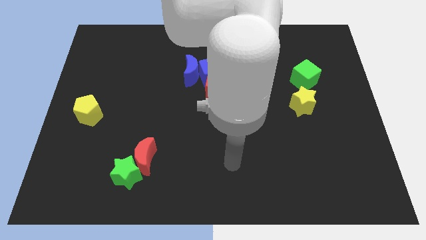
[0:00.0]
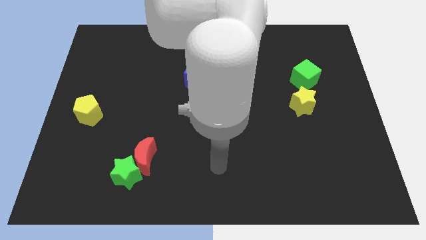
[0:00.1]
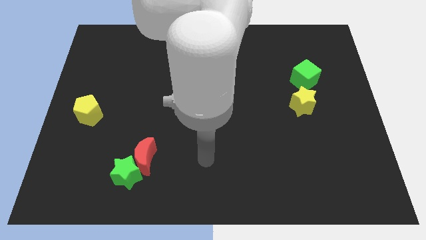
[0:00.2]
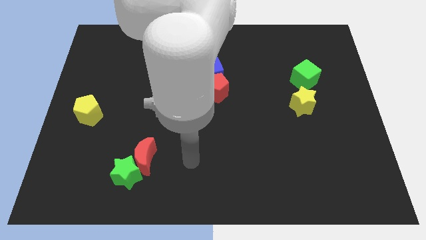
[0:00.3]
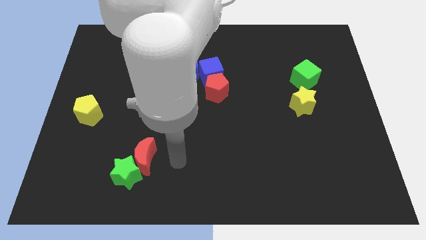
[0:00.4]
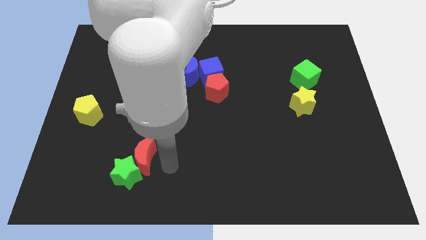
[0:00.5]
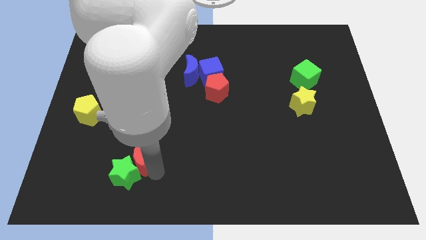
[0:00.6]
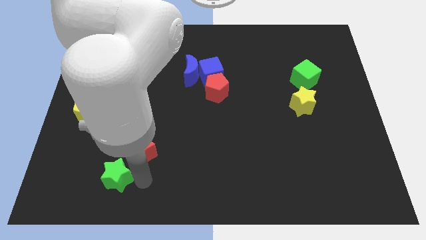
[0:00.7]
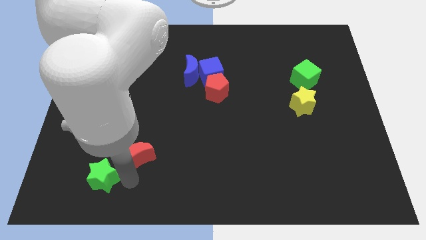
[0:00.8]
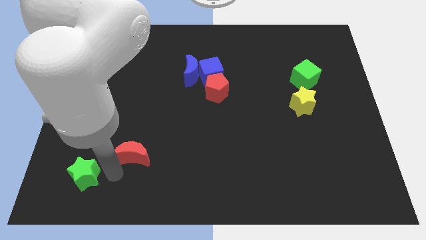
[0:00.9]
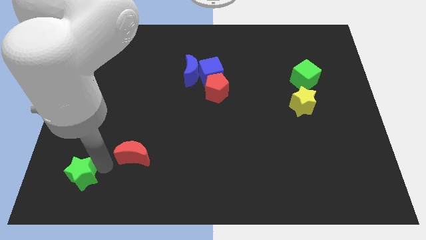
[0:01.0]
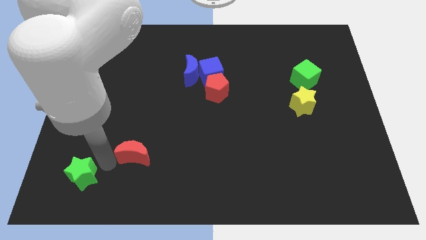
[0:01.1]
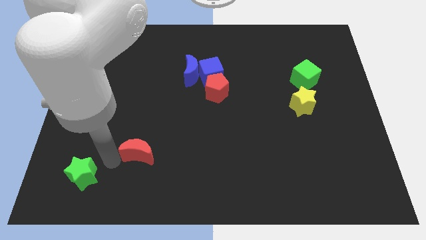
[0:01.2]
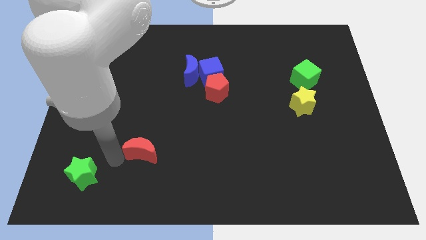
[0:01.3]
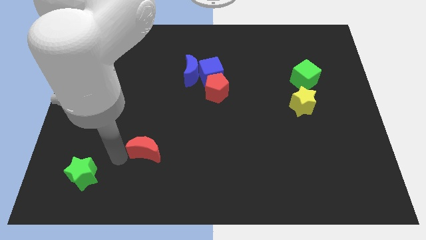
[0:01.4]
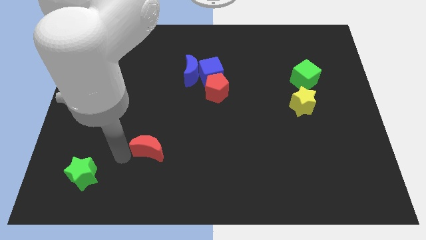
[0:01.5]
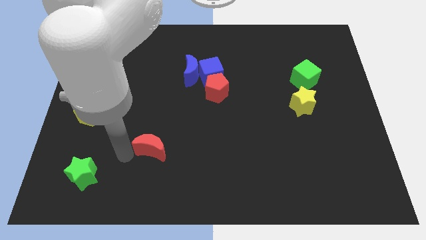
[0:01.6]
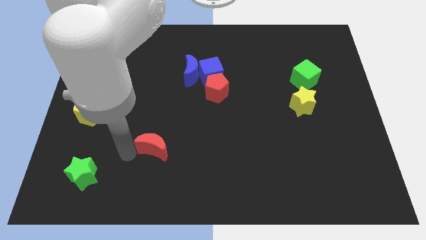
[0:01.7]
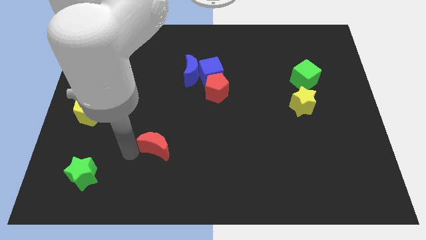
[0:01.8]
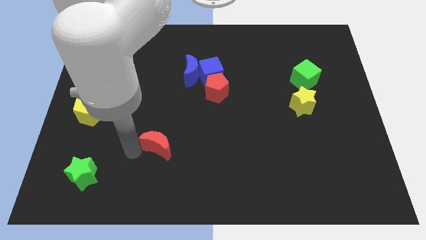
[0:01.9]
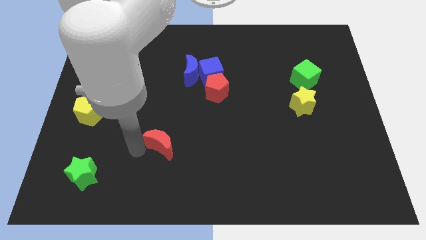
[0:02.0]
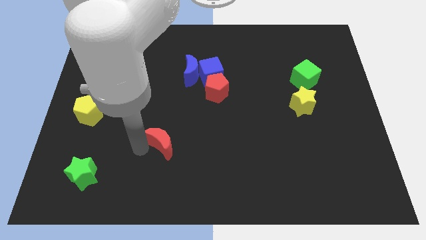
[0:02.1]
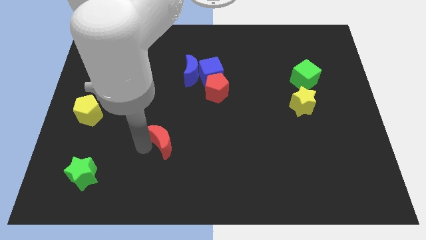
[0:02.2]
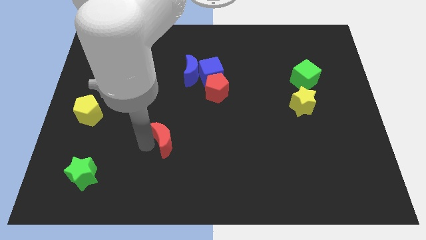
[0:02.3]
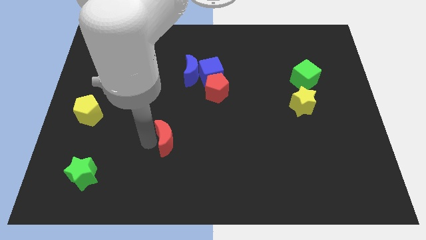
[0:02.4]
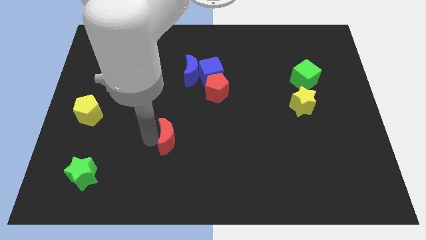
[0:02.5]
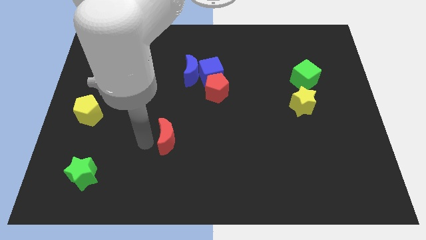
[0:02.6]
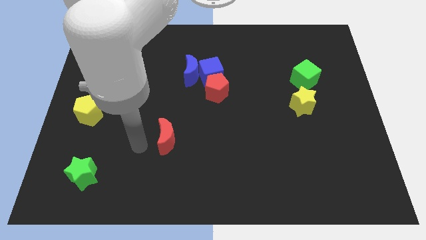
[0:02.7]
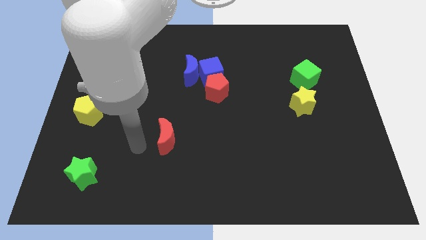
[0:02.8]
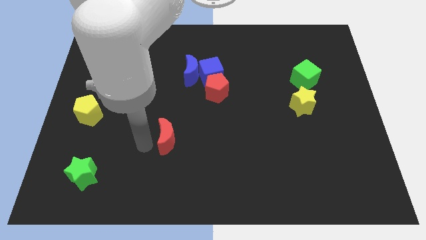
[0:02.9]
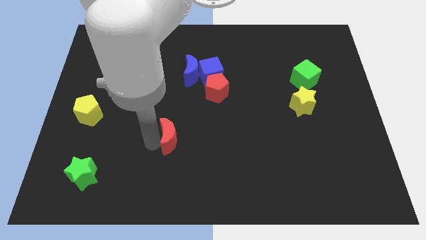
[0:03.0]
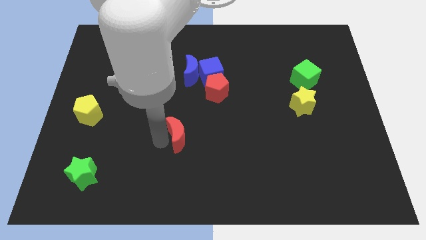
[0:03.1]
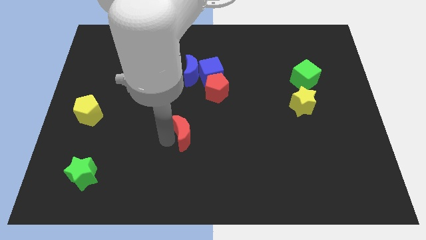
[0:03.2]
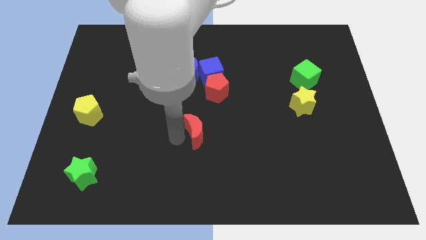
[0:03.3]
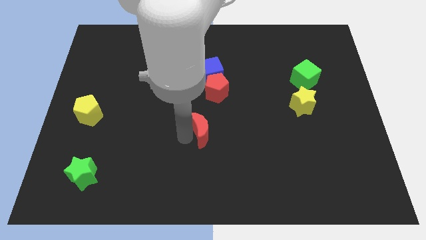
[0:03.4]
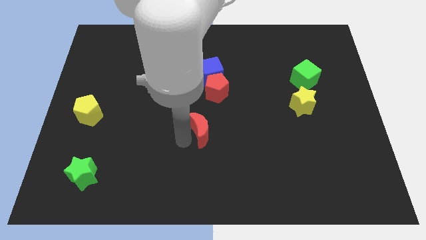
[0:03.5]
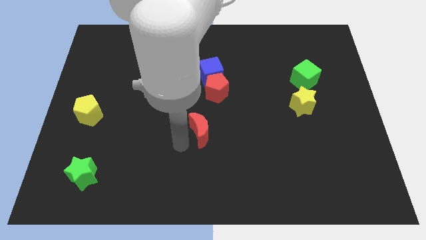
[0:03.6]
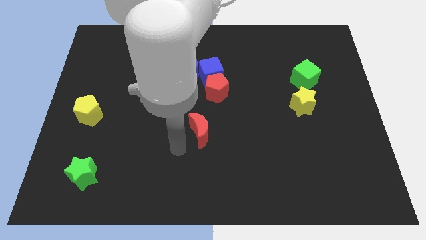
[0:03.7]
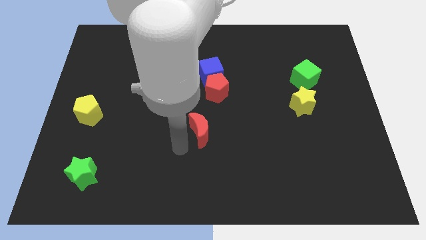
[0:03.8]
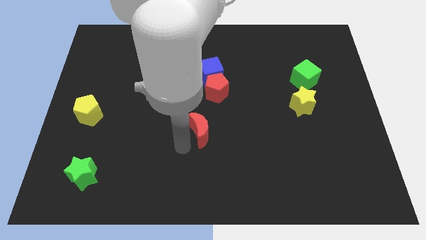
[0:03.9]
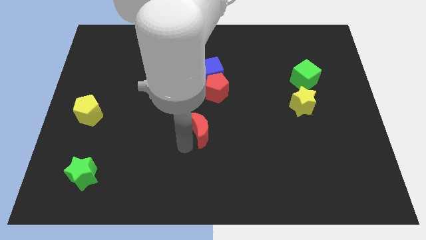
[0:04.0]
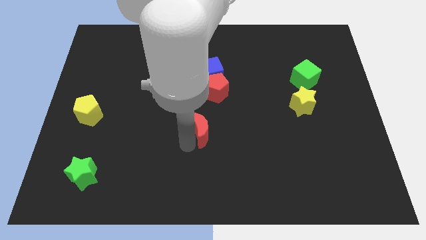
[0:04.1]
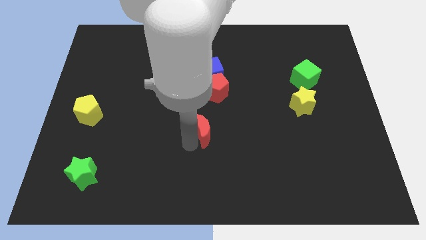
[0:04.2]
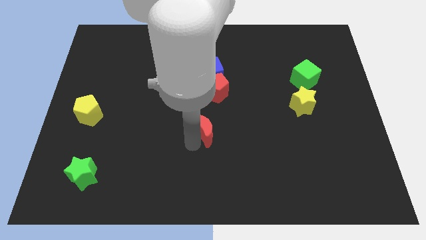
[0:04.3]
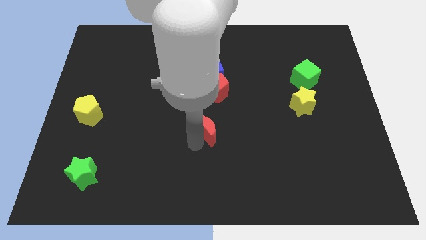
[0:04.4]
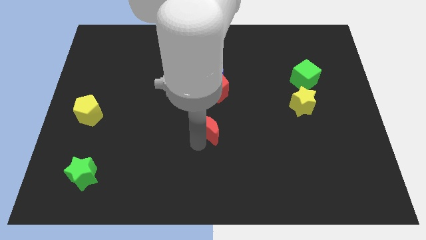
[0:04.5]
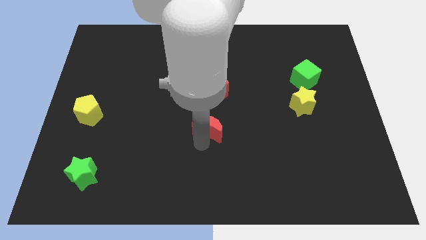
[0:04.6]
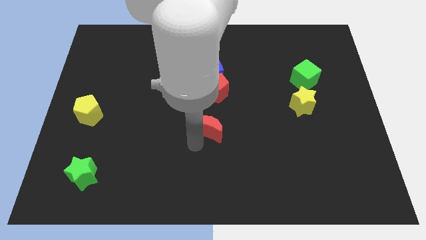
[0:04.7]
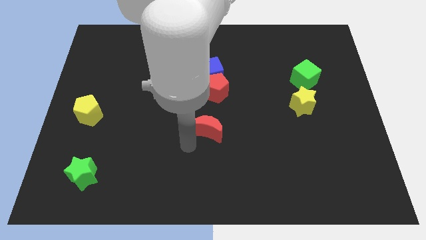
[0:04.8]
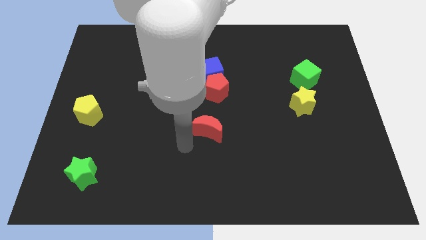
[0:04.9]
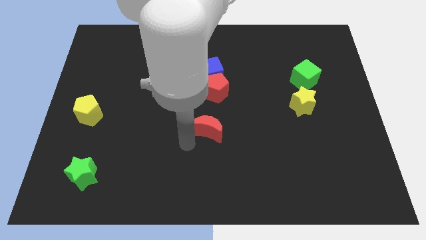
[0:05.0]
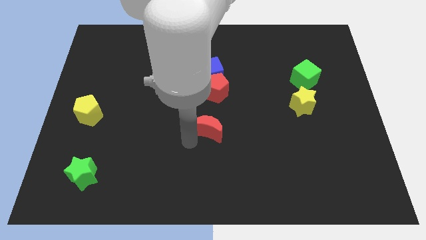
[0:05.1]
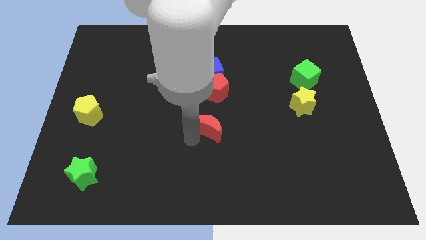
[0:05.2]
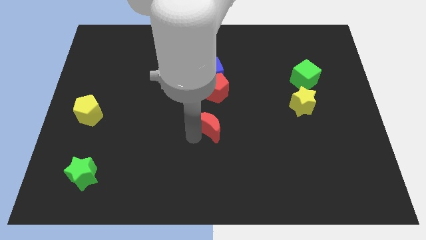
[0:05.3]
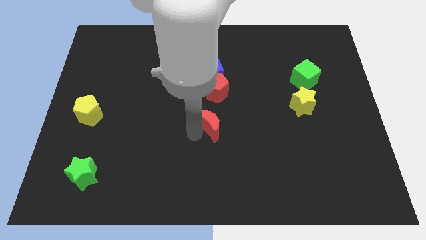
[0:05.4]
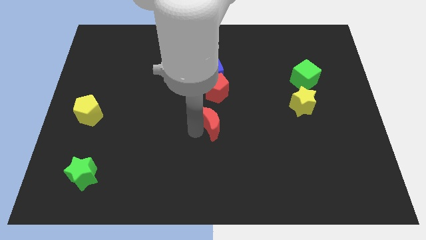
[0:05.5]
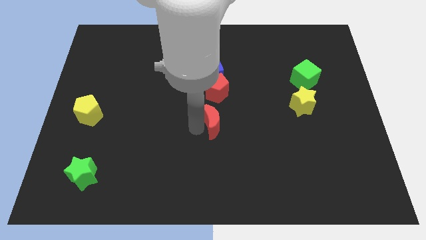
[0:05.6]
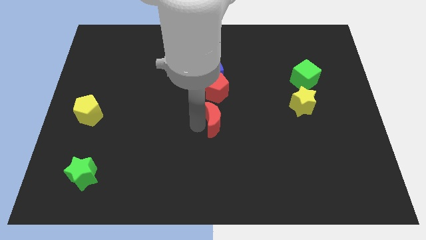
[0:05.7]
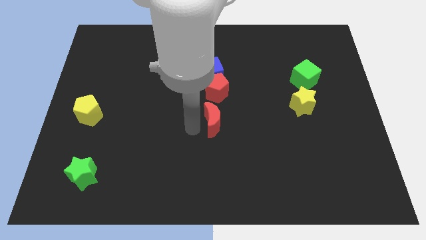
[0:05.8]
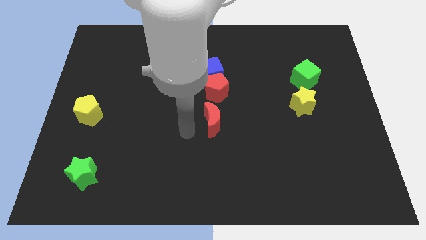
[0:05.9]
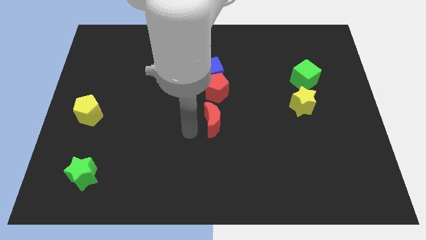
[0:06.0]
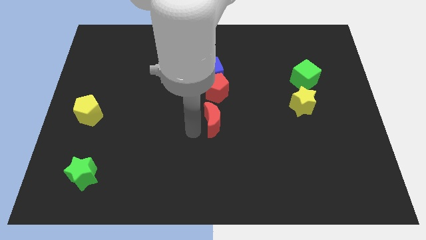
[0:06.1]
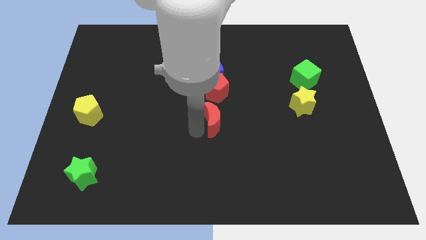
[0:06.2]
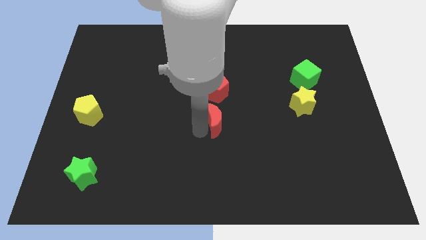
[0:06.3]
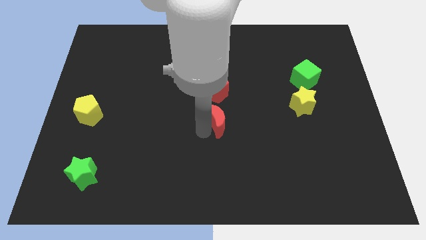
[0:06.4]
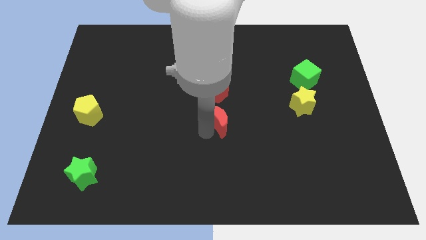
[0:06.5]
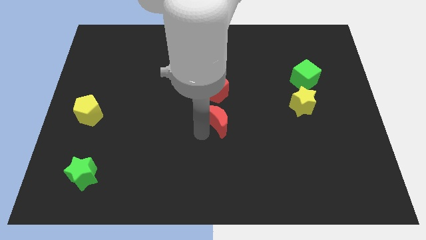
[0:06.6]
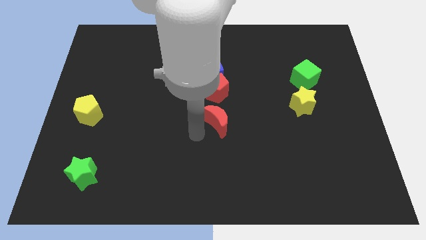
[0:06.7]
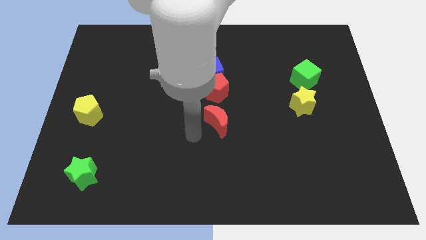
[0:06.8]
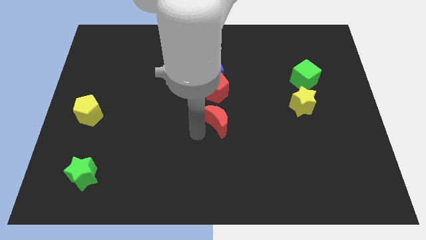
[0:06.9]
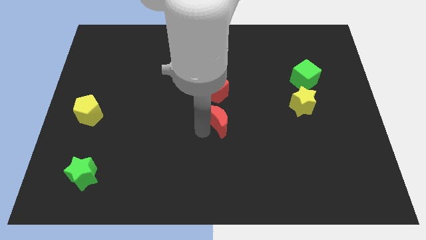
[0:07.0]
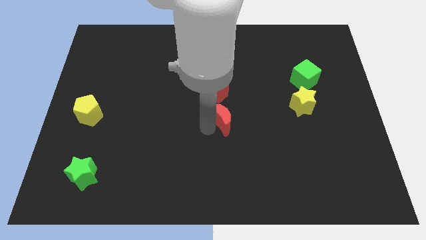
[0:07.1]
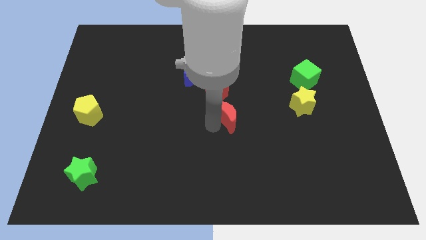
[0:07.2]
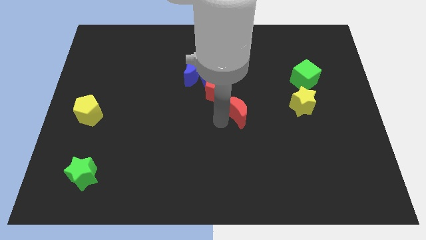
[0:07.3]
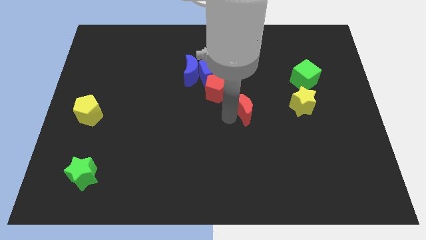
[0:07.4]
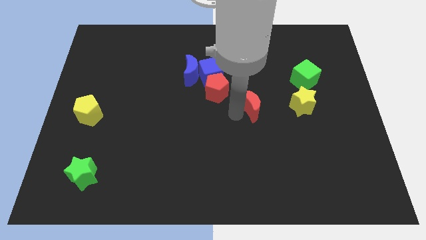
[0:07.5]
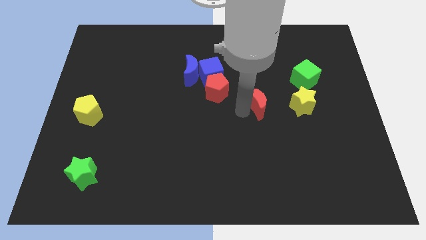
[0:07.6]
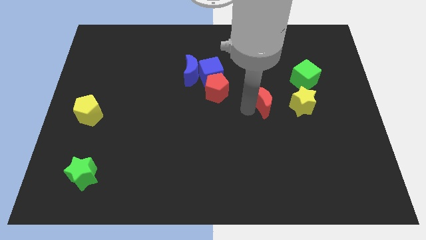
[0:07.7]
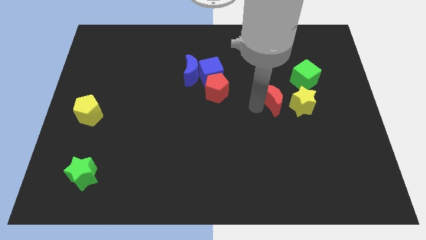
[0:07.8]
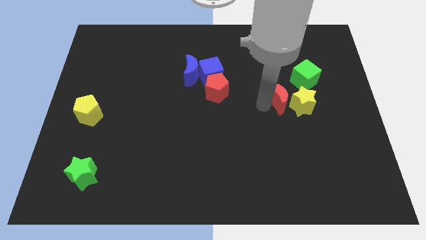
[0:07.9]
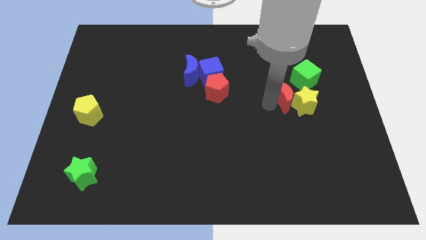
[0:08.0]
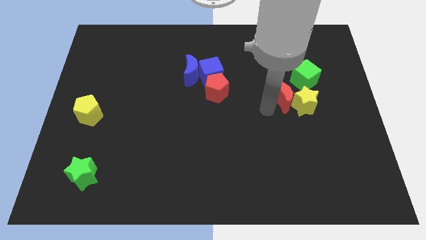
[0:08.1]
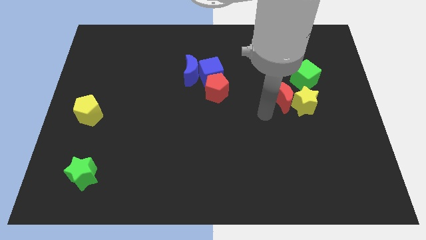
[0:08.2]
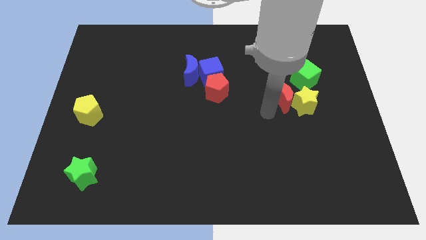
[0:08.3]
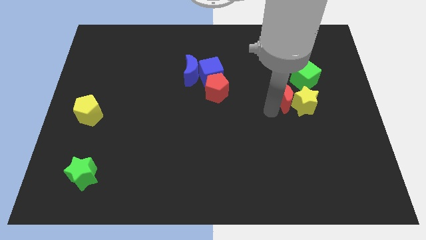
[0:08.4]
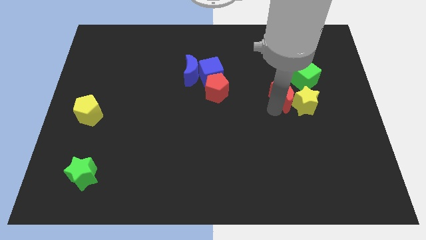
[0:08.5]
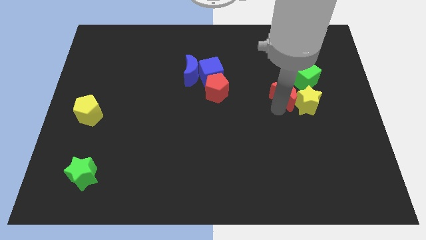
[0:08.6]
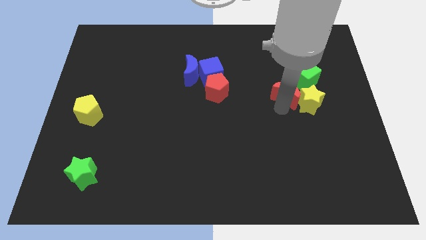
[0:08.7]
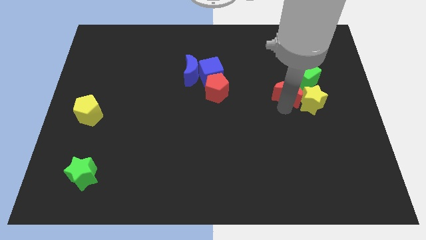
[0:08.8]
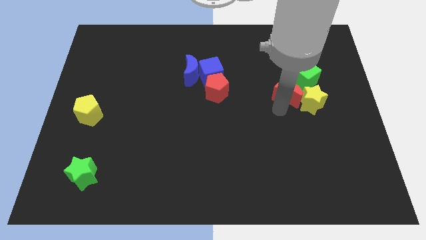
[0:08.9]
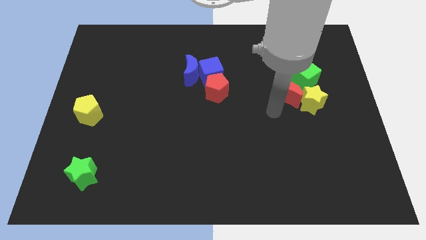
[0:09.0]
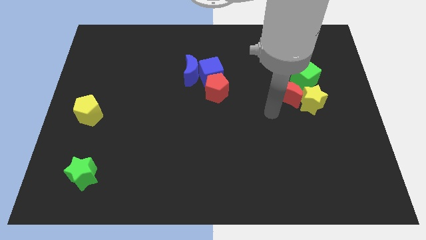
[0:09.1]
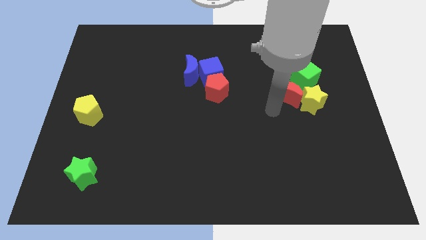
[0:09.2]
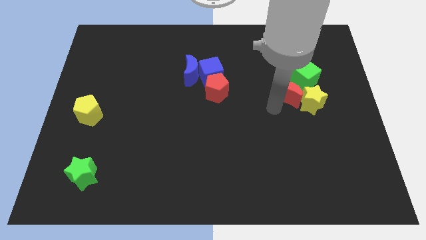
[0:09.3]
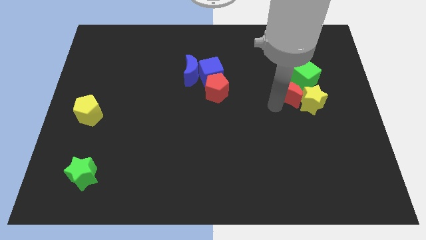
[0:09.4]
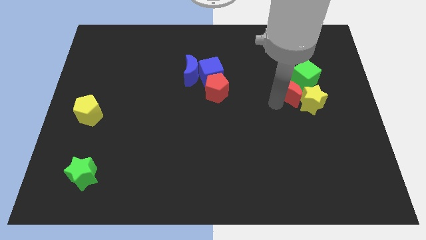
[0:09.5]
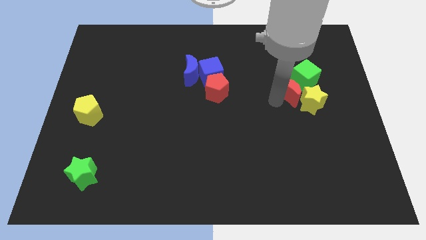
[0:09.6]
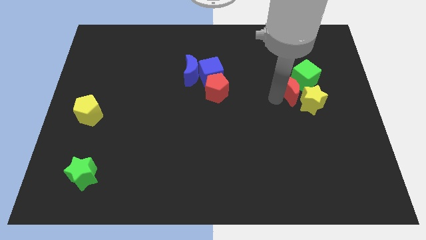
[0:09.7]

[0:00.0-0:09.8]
slide the red moon next to the green cube
